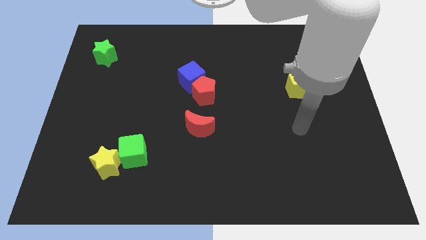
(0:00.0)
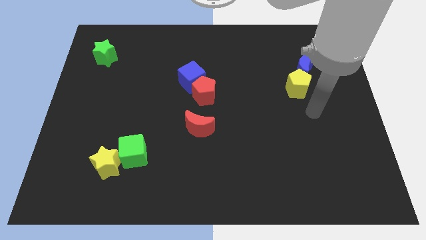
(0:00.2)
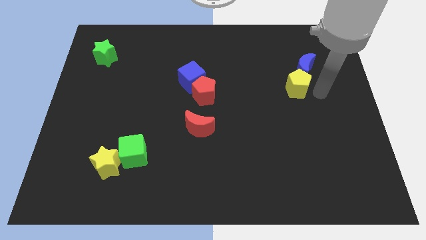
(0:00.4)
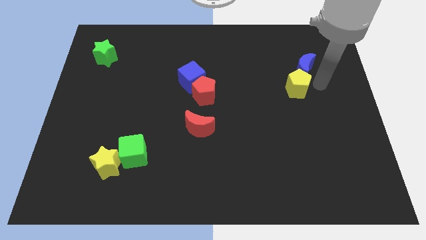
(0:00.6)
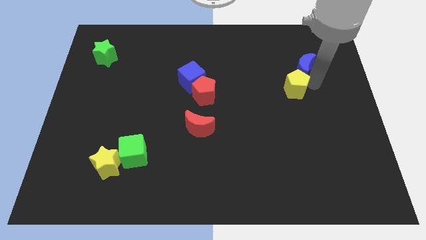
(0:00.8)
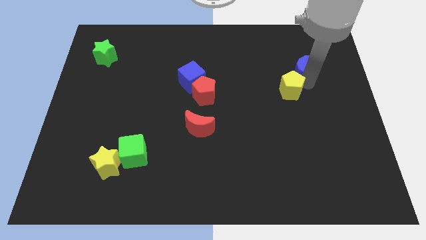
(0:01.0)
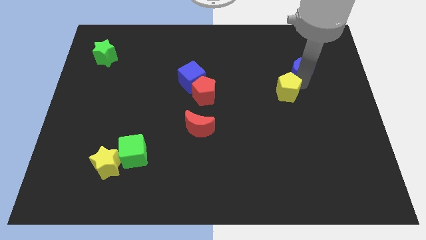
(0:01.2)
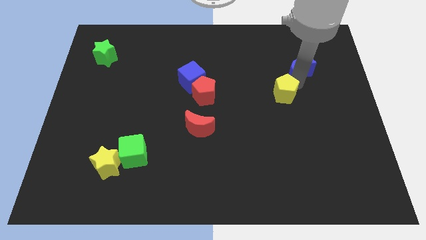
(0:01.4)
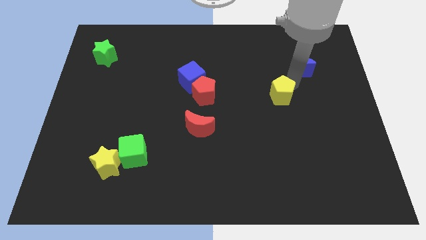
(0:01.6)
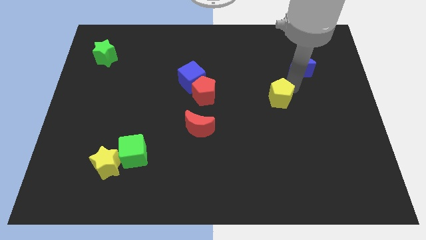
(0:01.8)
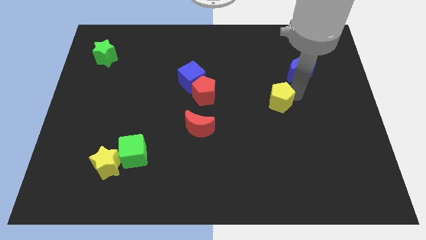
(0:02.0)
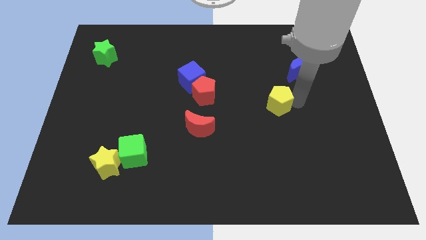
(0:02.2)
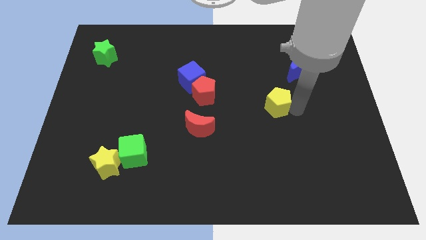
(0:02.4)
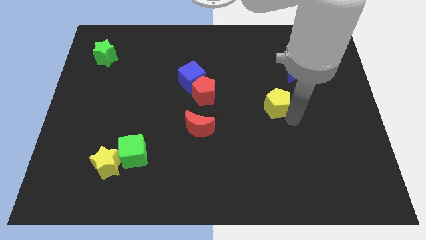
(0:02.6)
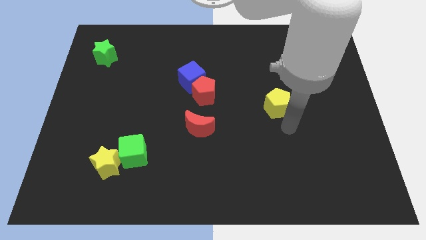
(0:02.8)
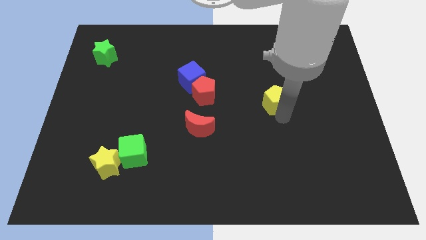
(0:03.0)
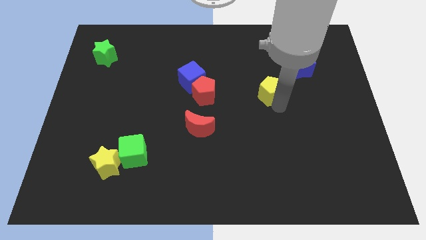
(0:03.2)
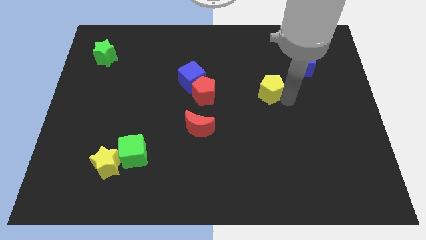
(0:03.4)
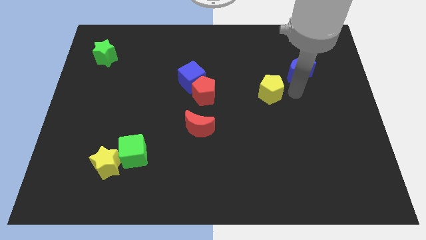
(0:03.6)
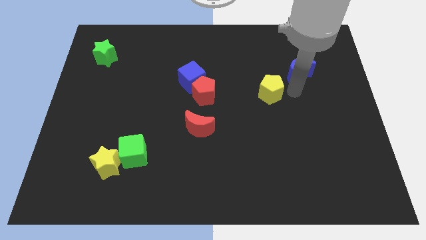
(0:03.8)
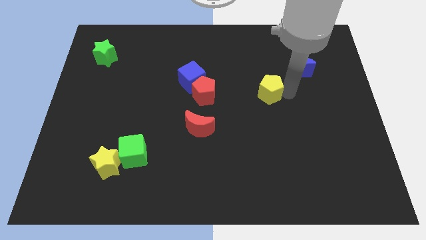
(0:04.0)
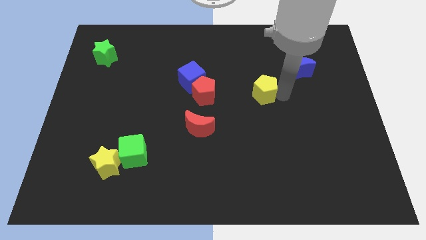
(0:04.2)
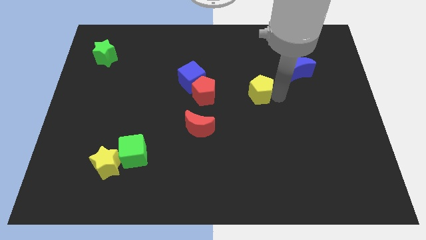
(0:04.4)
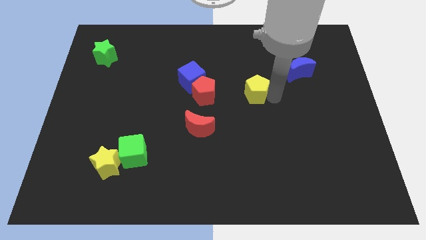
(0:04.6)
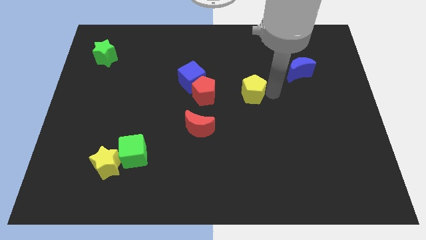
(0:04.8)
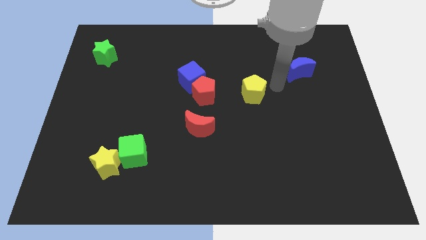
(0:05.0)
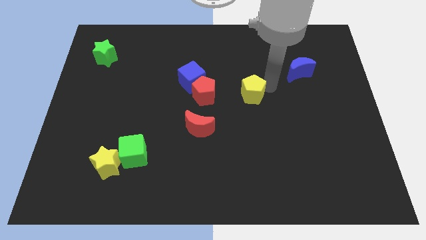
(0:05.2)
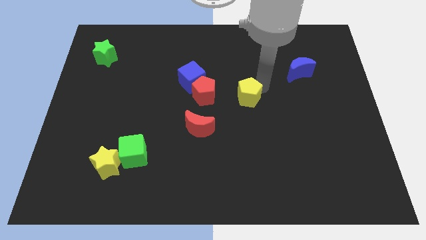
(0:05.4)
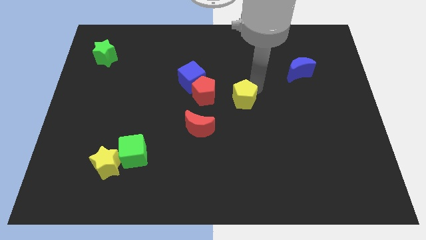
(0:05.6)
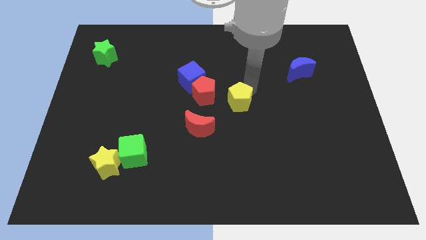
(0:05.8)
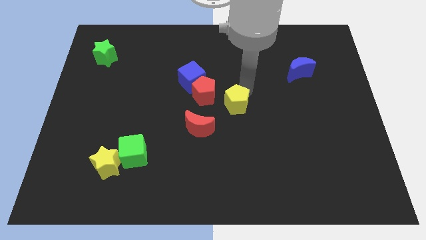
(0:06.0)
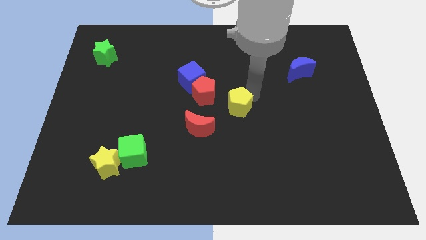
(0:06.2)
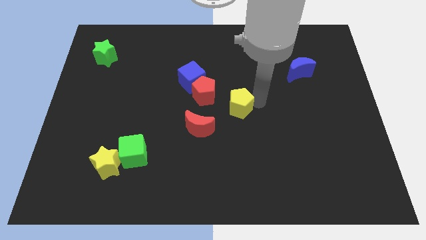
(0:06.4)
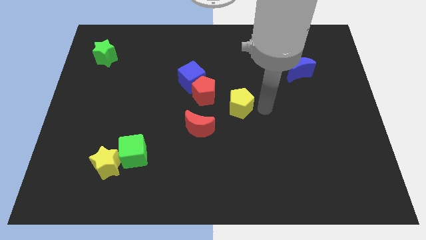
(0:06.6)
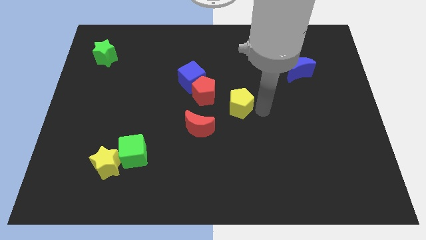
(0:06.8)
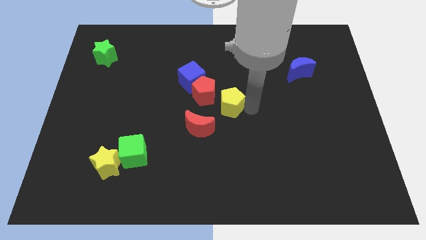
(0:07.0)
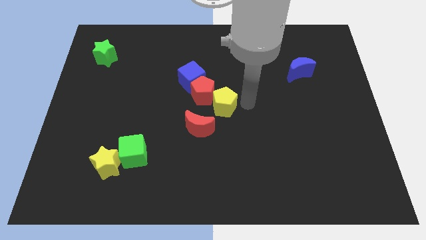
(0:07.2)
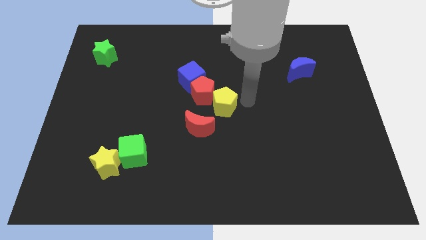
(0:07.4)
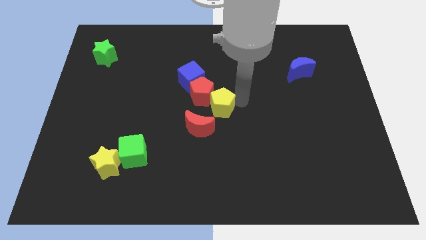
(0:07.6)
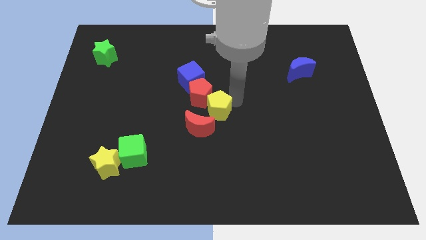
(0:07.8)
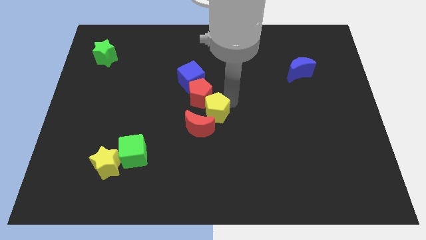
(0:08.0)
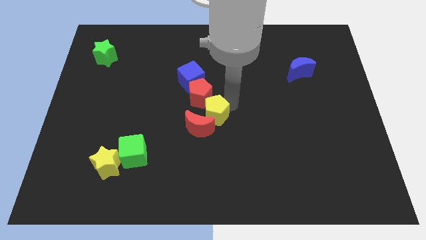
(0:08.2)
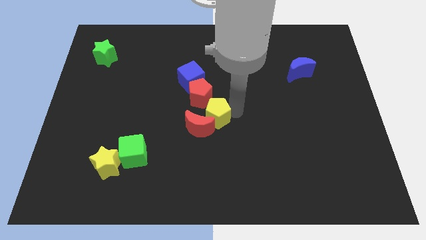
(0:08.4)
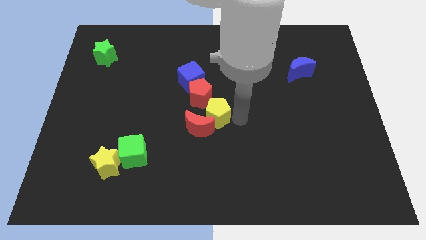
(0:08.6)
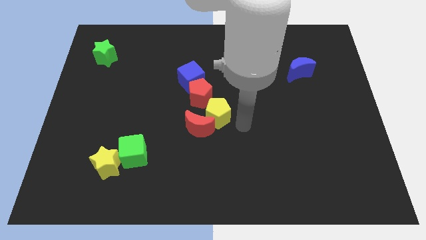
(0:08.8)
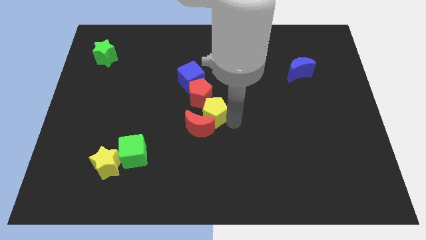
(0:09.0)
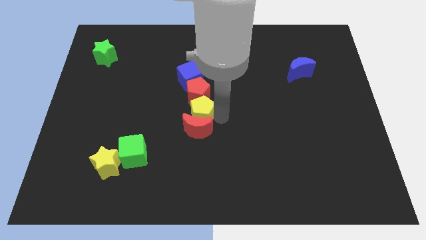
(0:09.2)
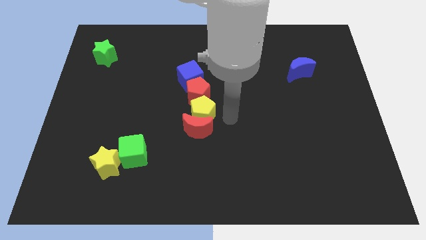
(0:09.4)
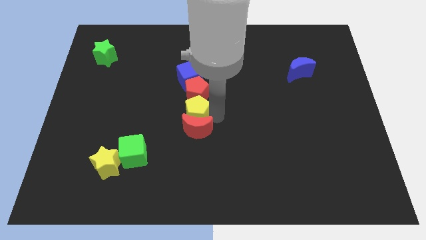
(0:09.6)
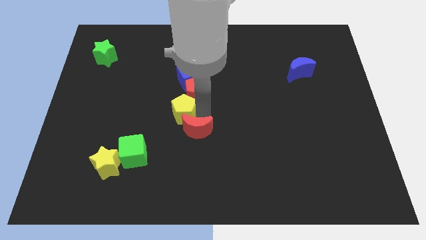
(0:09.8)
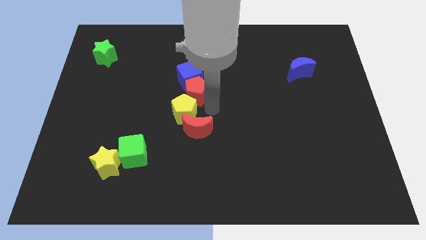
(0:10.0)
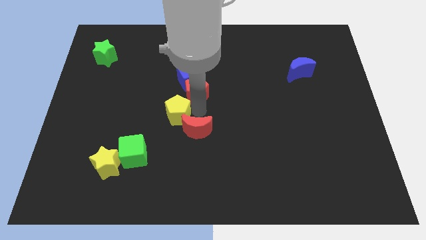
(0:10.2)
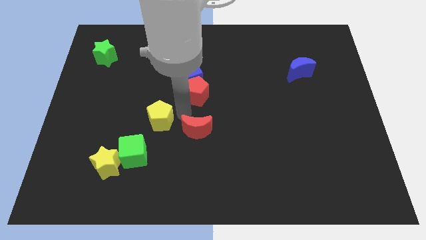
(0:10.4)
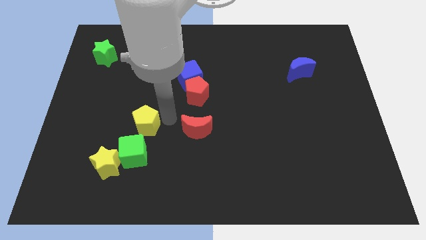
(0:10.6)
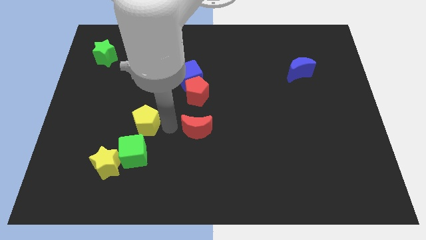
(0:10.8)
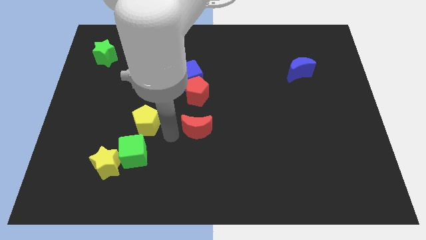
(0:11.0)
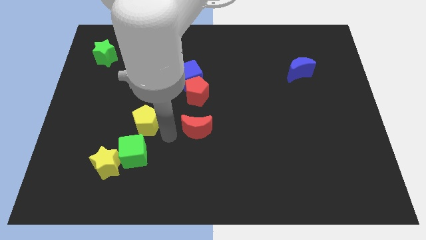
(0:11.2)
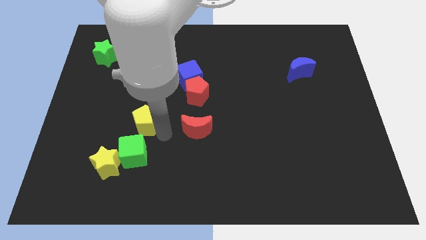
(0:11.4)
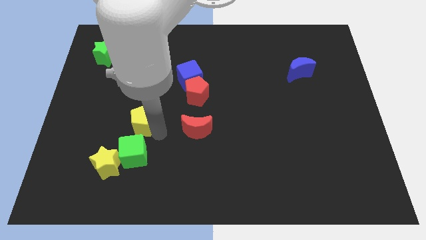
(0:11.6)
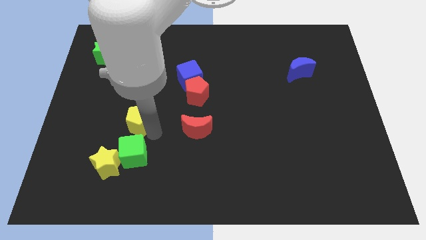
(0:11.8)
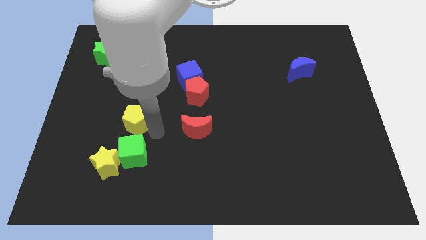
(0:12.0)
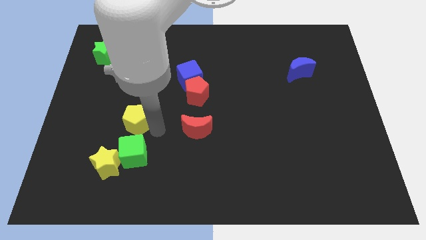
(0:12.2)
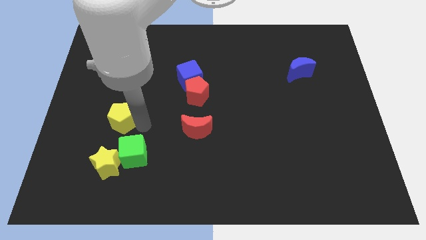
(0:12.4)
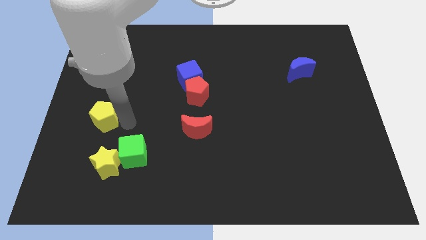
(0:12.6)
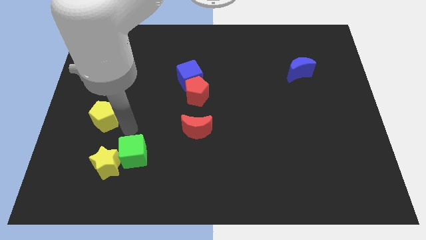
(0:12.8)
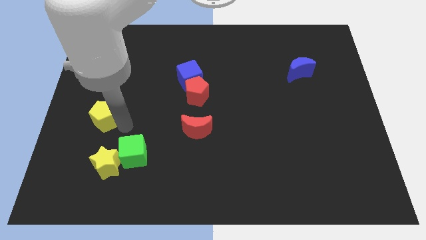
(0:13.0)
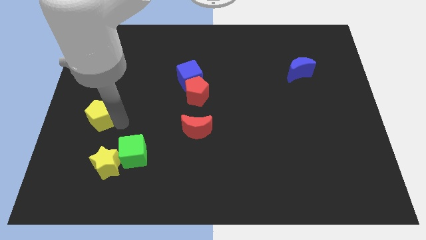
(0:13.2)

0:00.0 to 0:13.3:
slide the yellow pentagon to the left side
